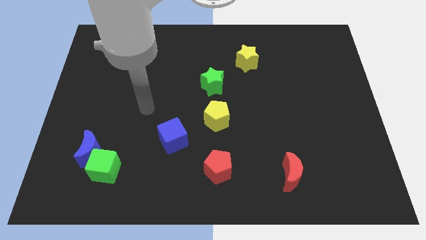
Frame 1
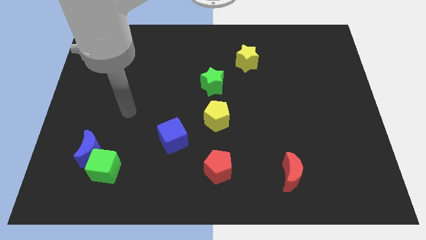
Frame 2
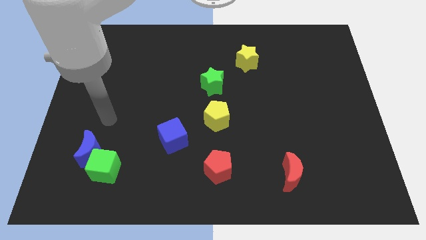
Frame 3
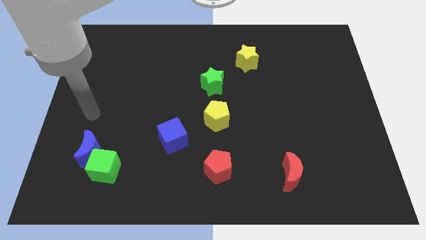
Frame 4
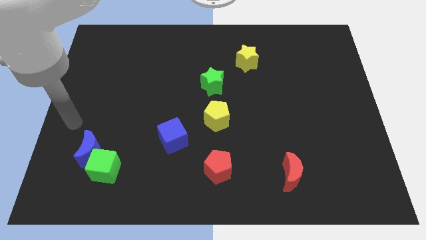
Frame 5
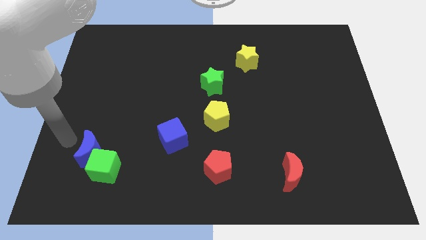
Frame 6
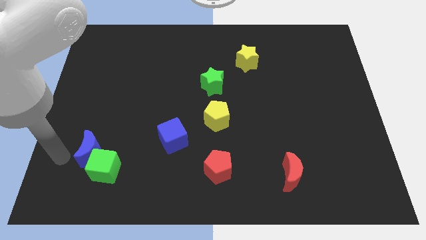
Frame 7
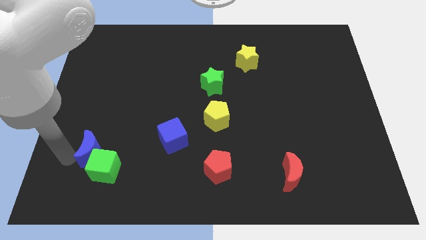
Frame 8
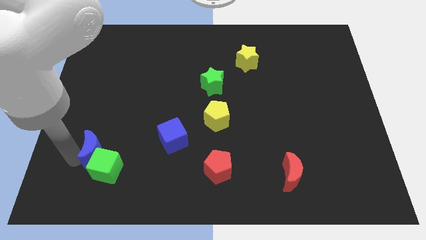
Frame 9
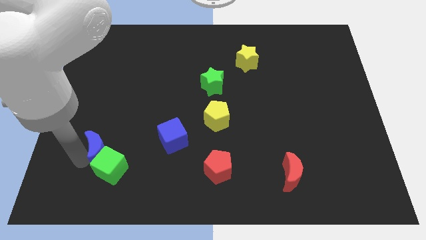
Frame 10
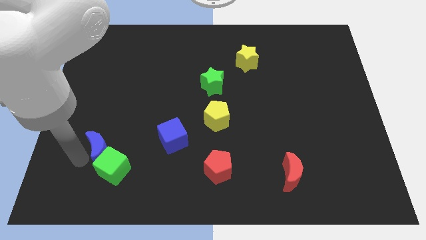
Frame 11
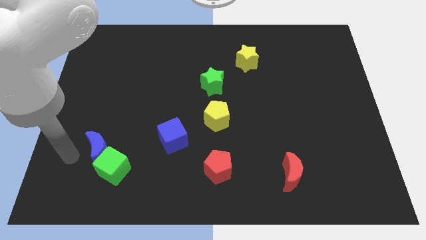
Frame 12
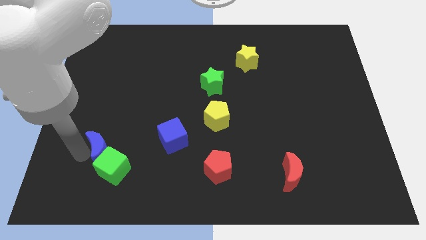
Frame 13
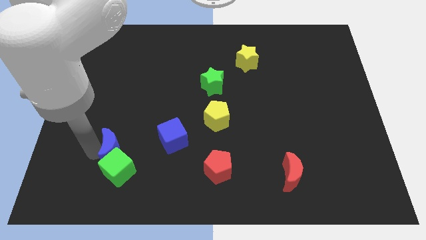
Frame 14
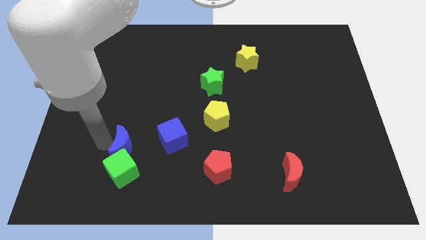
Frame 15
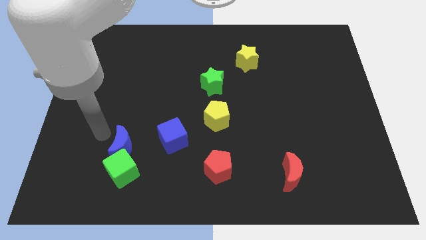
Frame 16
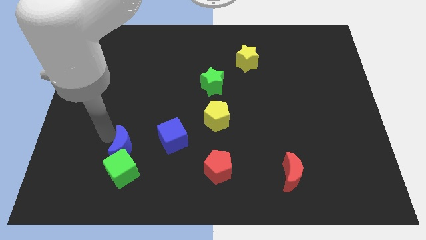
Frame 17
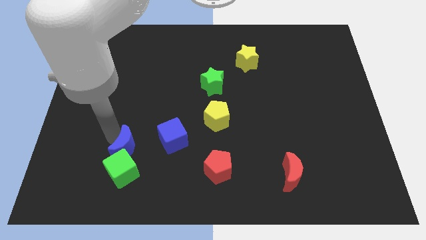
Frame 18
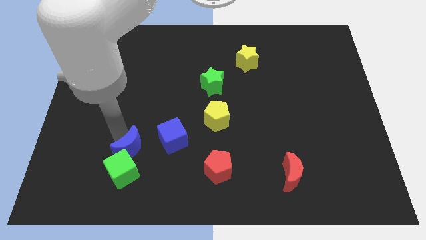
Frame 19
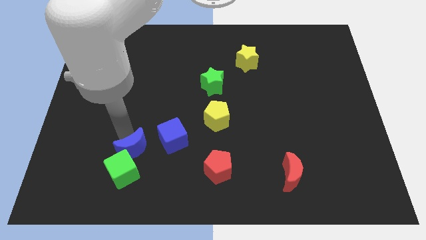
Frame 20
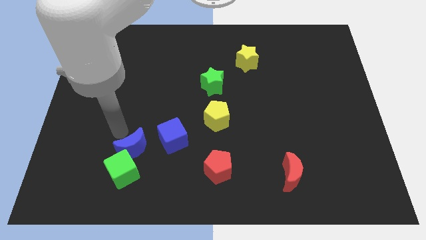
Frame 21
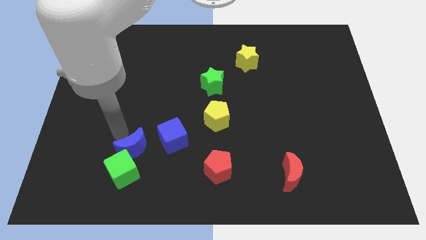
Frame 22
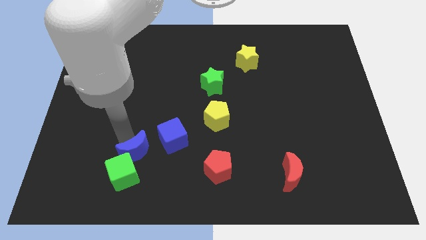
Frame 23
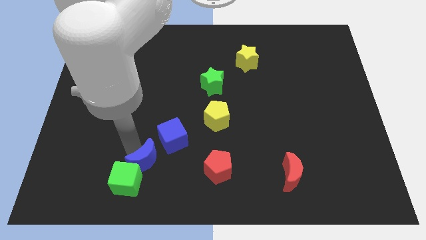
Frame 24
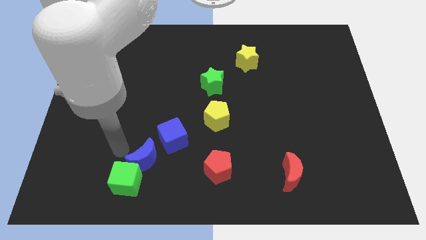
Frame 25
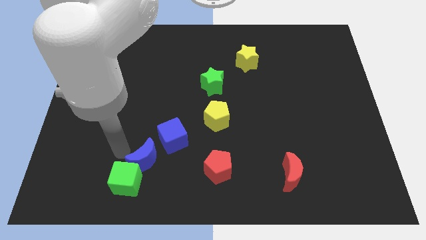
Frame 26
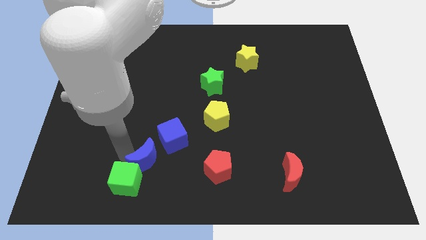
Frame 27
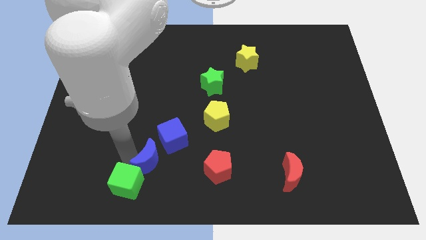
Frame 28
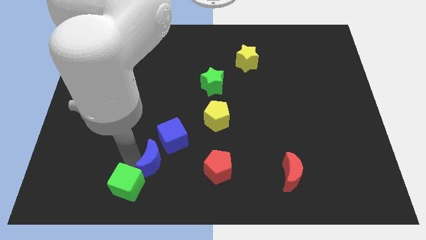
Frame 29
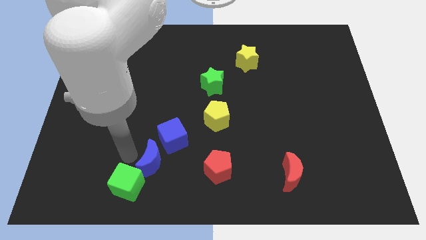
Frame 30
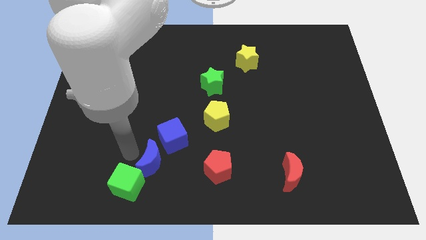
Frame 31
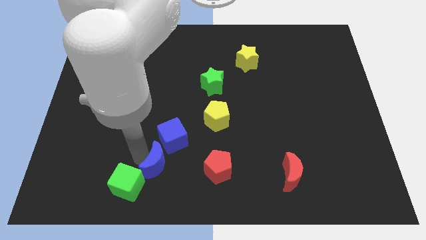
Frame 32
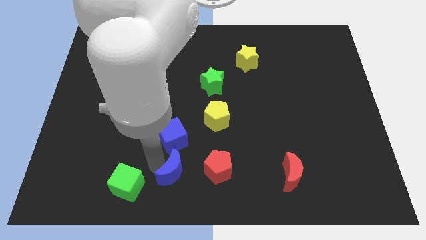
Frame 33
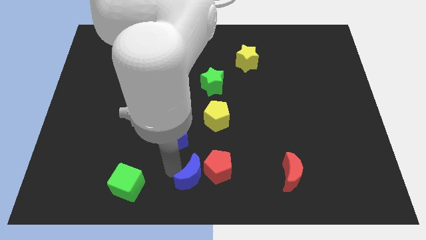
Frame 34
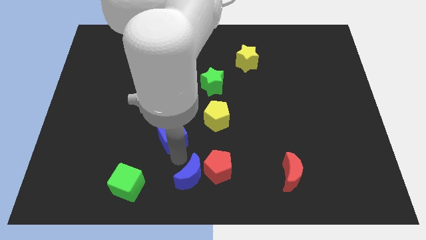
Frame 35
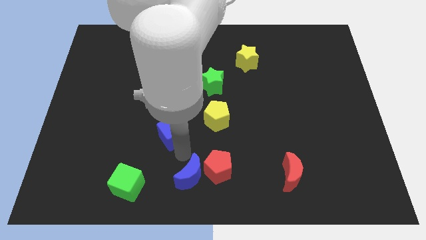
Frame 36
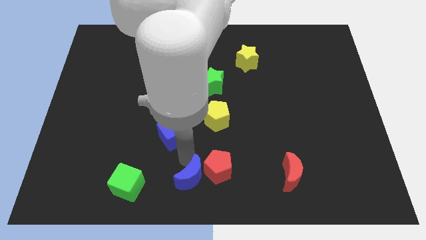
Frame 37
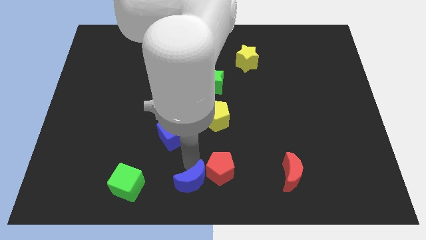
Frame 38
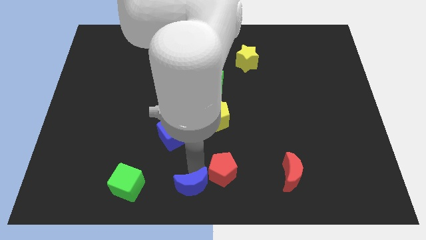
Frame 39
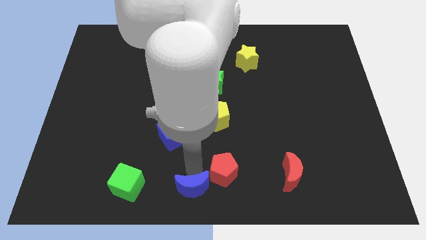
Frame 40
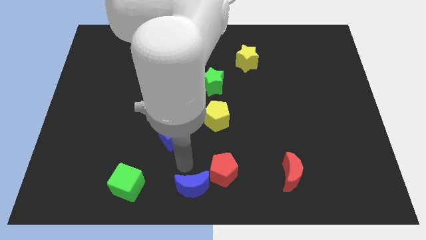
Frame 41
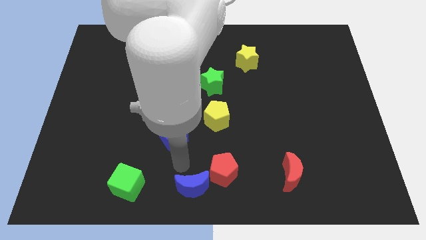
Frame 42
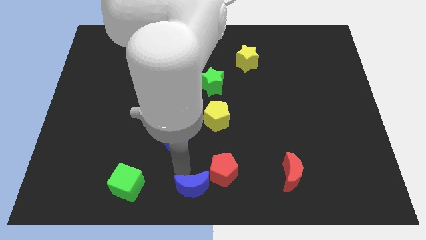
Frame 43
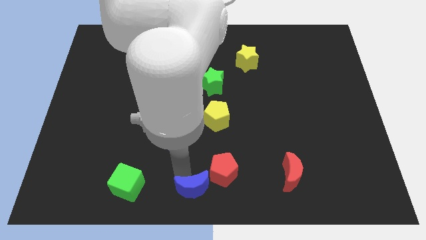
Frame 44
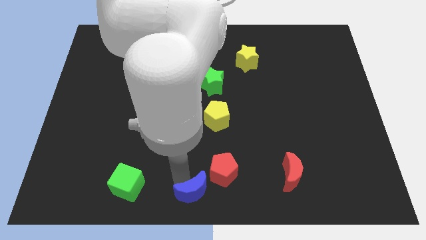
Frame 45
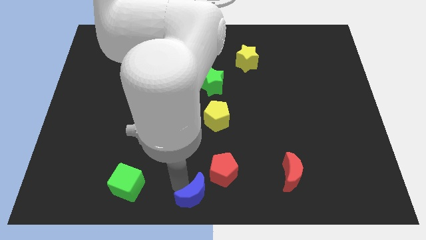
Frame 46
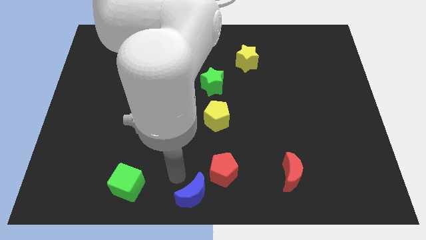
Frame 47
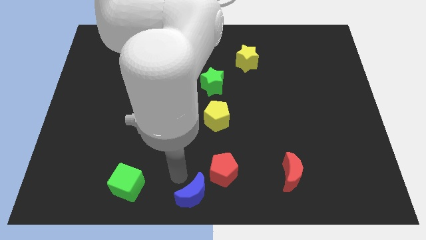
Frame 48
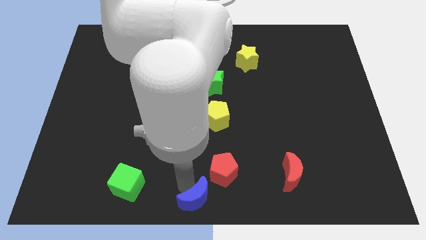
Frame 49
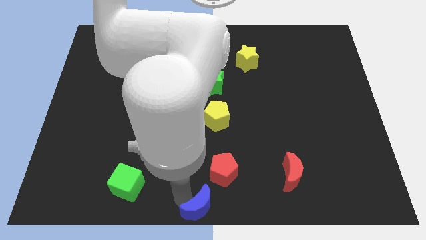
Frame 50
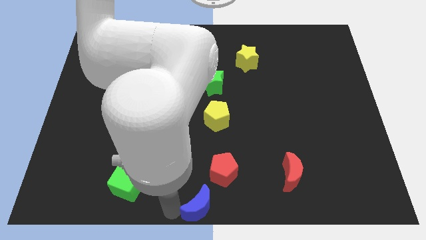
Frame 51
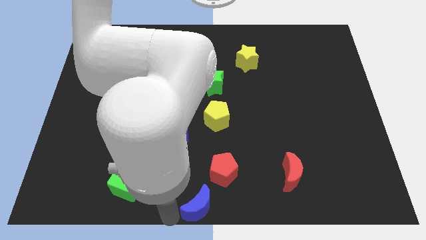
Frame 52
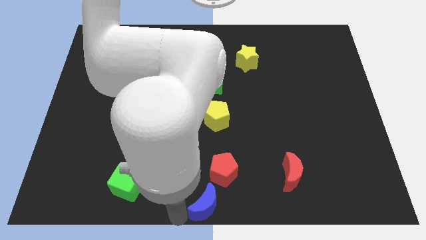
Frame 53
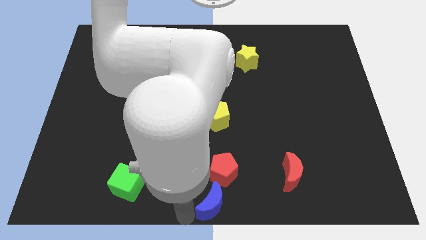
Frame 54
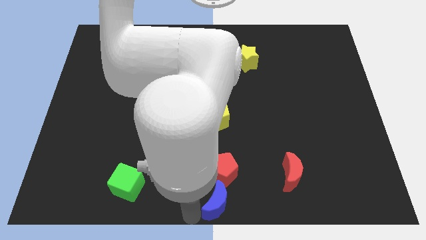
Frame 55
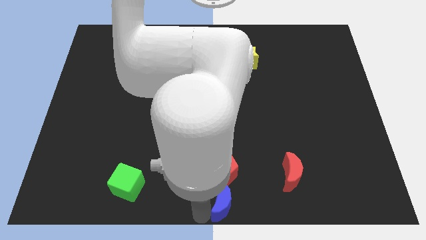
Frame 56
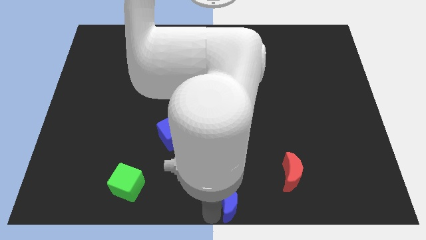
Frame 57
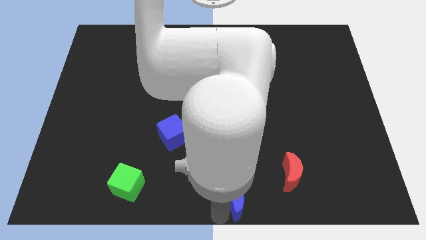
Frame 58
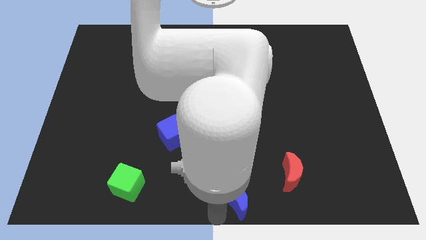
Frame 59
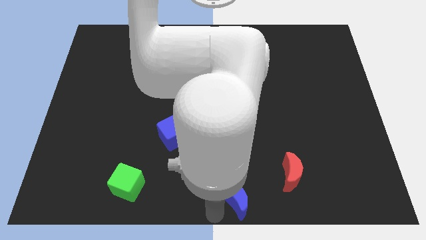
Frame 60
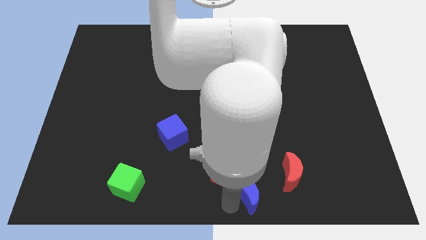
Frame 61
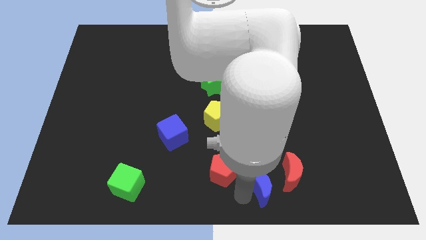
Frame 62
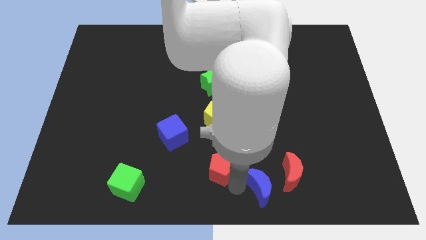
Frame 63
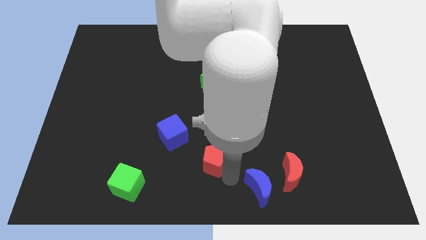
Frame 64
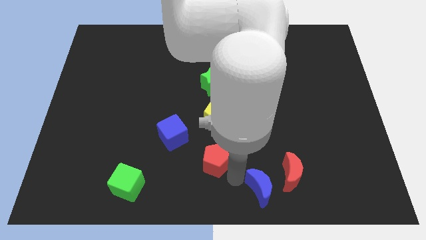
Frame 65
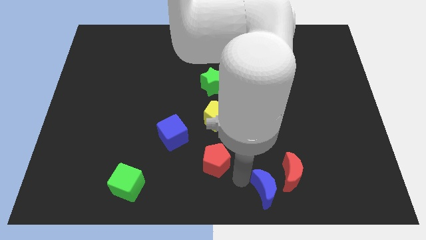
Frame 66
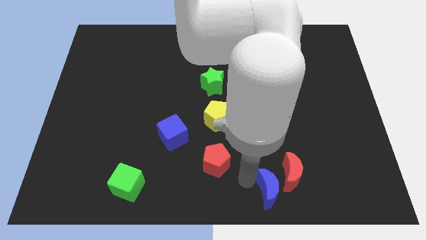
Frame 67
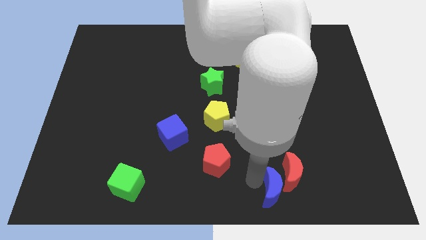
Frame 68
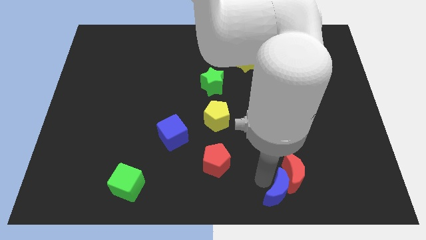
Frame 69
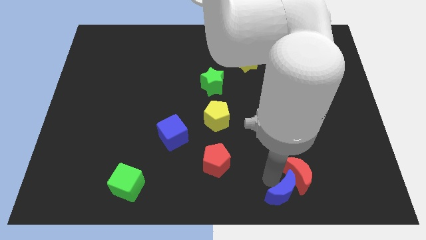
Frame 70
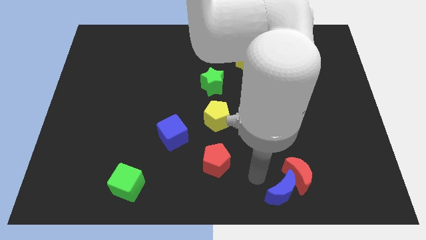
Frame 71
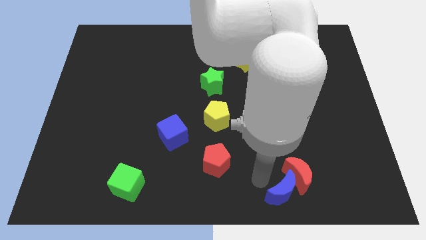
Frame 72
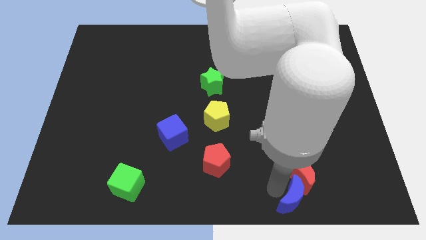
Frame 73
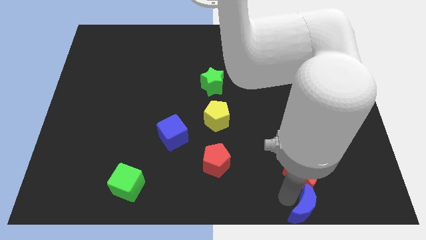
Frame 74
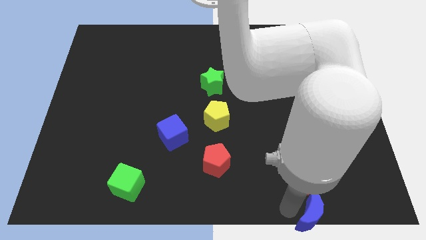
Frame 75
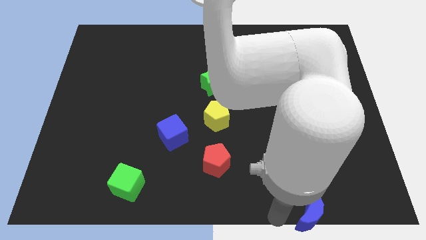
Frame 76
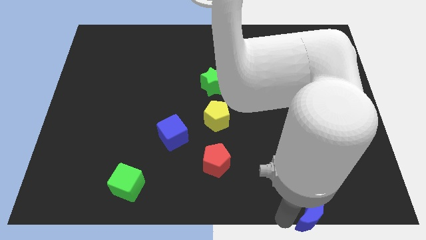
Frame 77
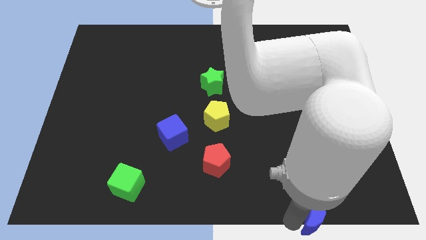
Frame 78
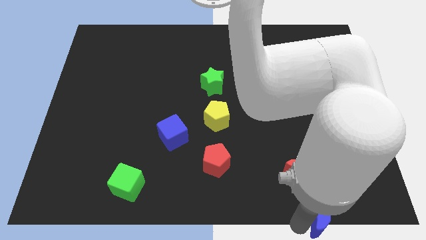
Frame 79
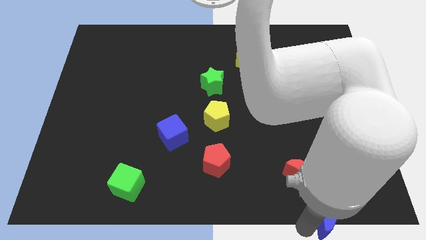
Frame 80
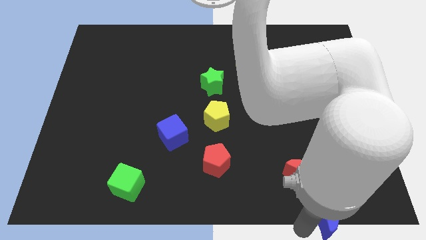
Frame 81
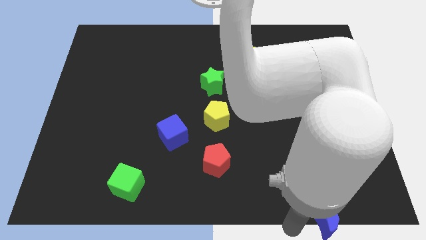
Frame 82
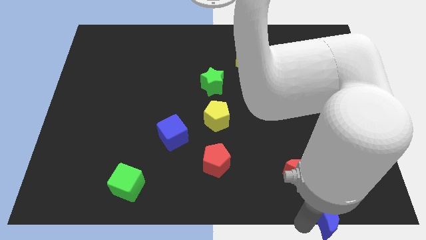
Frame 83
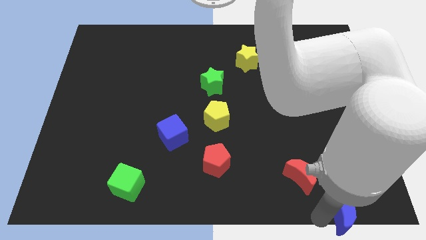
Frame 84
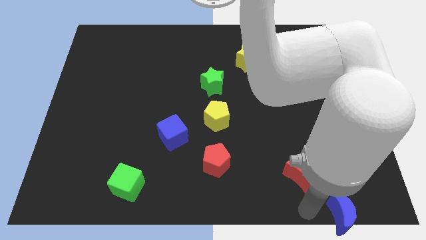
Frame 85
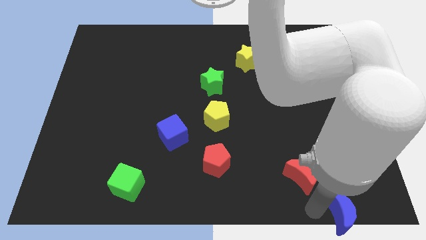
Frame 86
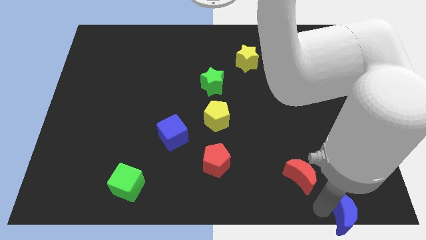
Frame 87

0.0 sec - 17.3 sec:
move the blue moon to the bottom right
